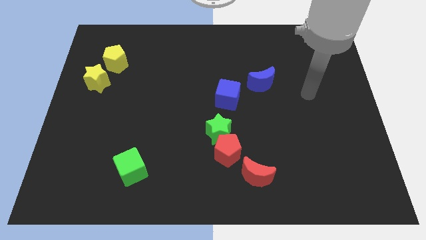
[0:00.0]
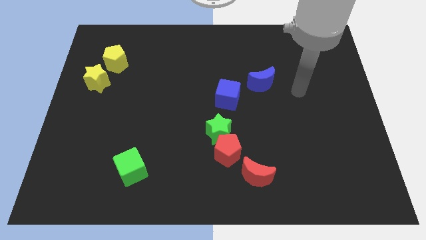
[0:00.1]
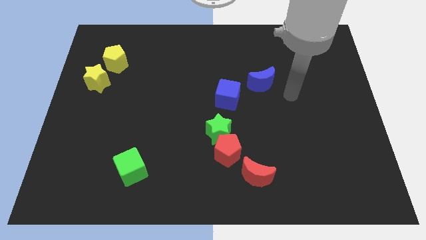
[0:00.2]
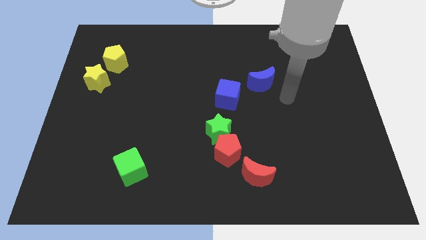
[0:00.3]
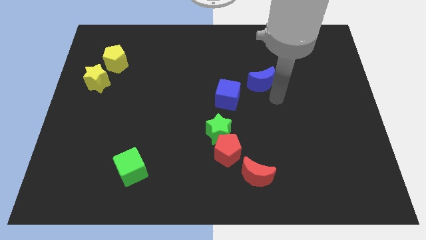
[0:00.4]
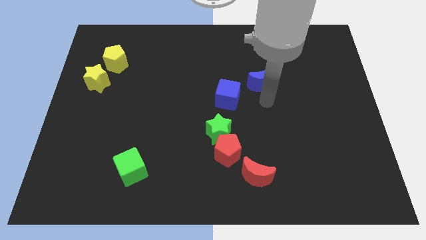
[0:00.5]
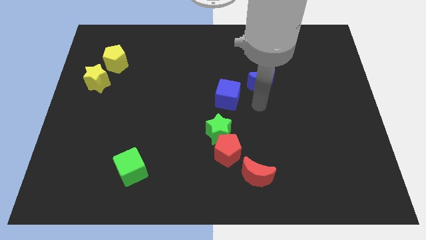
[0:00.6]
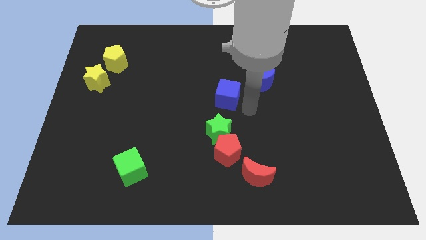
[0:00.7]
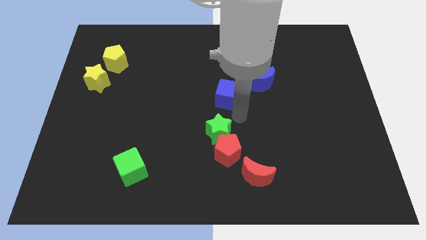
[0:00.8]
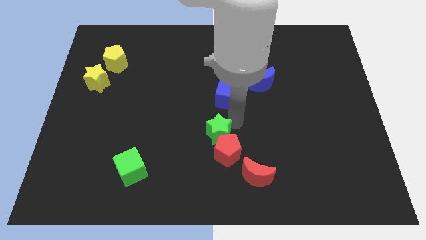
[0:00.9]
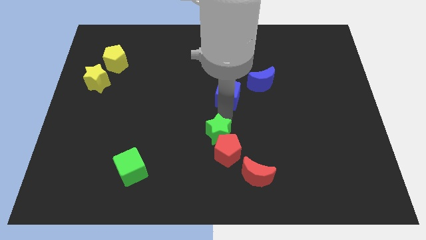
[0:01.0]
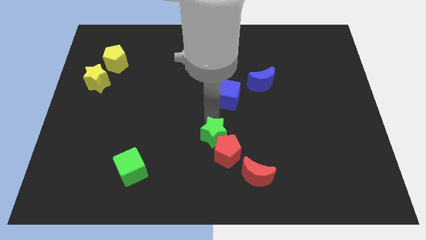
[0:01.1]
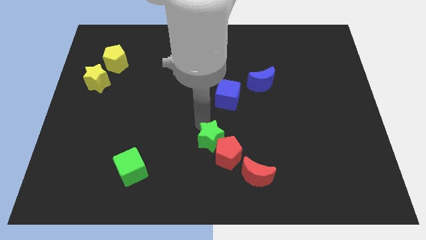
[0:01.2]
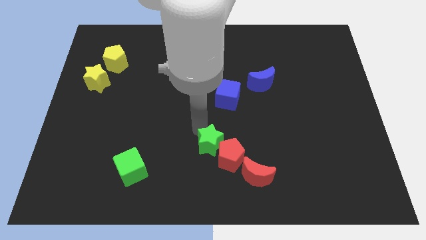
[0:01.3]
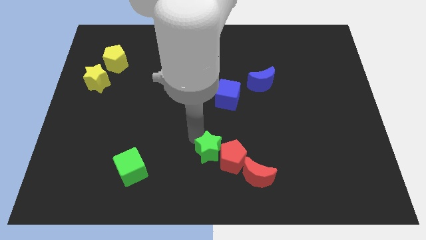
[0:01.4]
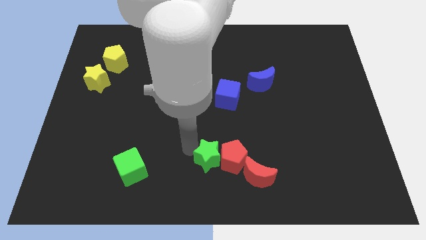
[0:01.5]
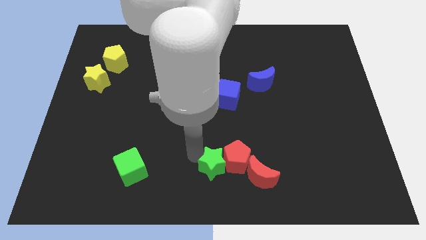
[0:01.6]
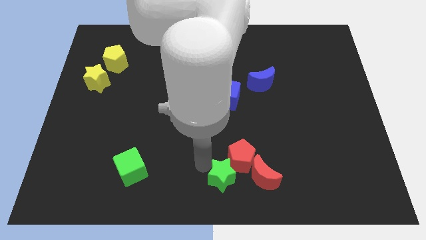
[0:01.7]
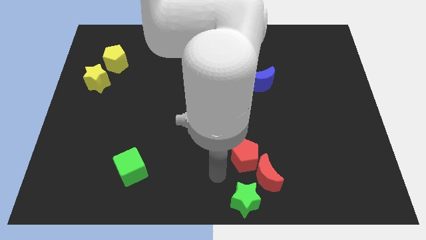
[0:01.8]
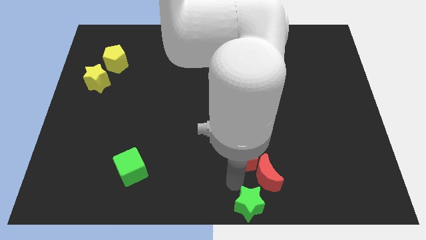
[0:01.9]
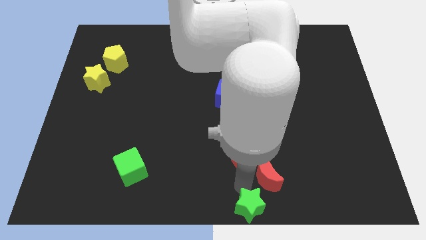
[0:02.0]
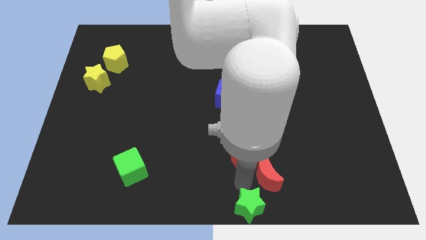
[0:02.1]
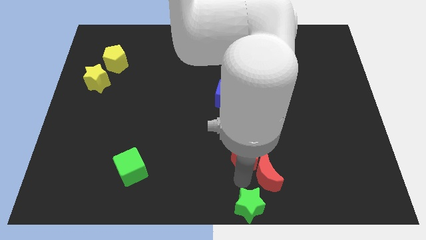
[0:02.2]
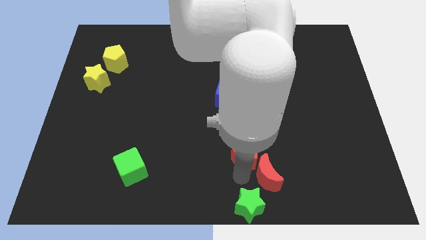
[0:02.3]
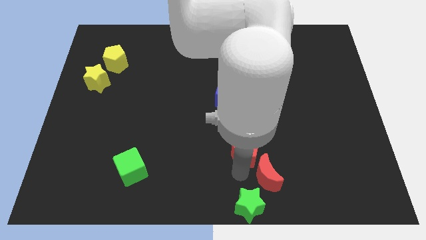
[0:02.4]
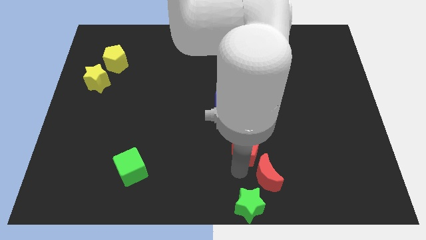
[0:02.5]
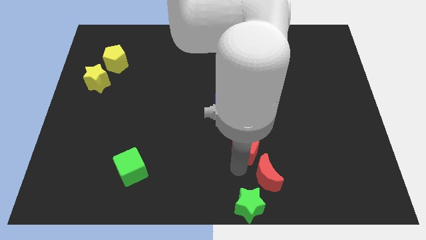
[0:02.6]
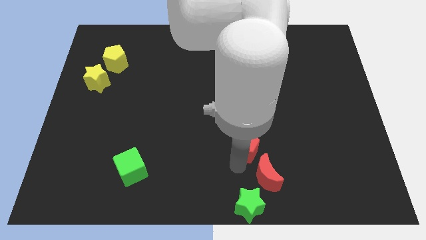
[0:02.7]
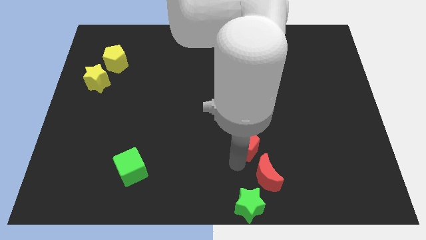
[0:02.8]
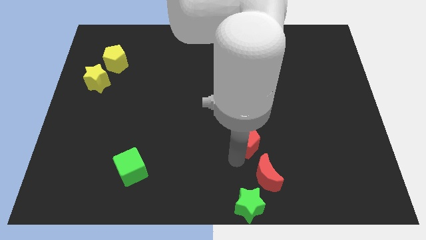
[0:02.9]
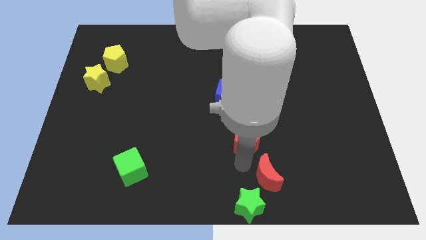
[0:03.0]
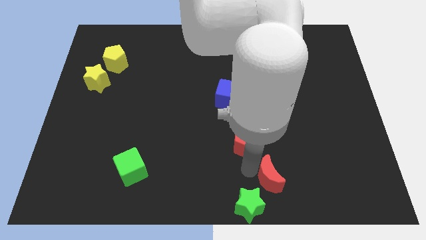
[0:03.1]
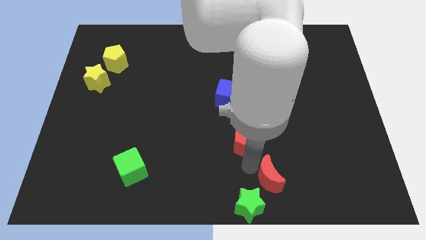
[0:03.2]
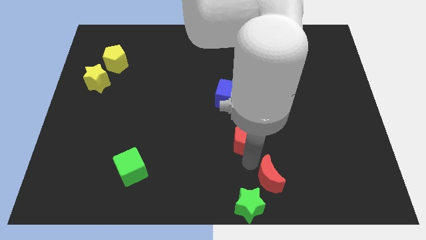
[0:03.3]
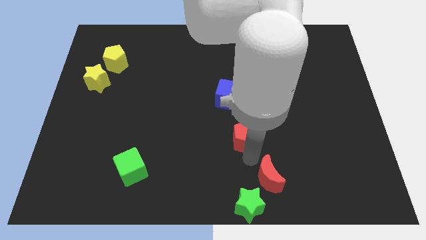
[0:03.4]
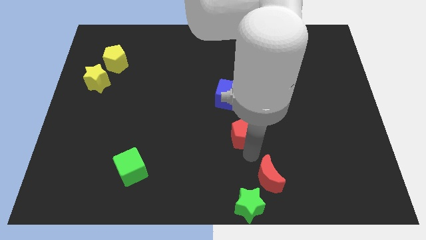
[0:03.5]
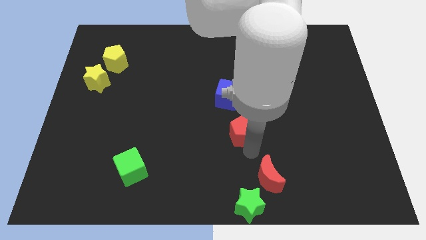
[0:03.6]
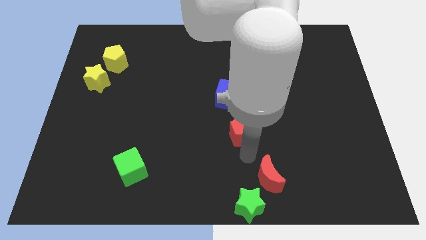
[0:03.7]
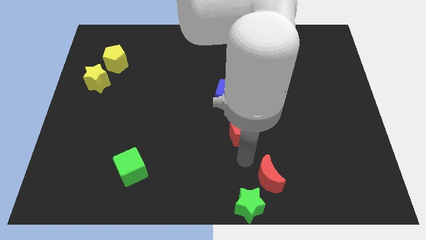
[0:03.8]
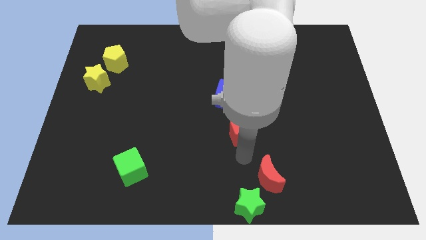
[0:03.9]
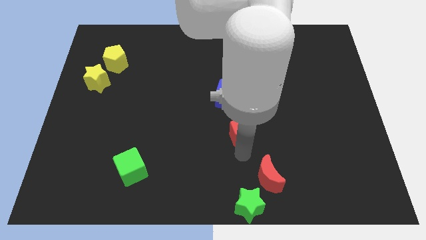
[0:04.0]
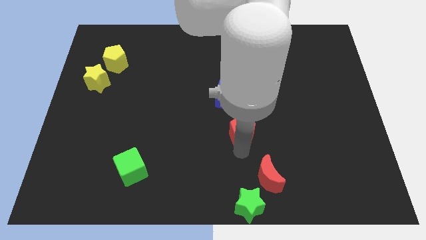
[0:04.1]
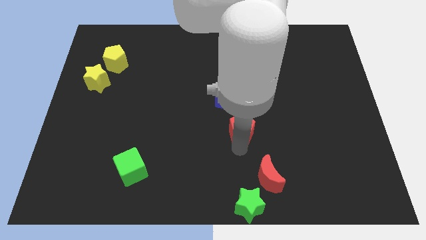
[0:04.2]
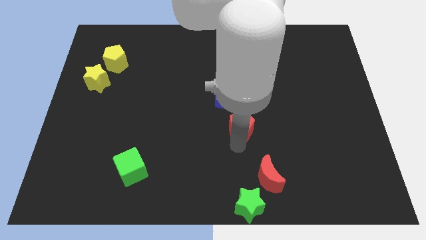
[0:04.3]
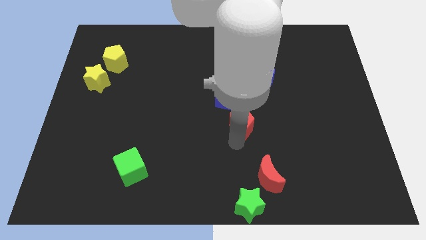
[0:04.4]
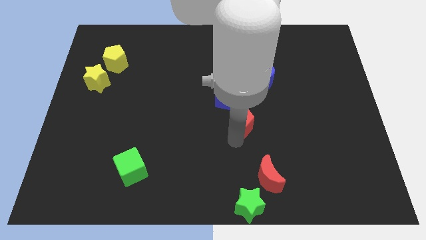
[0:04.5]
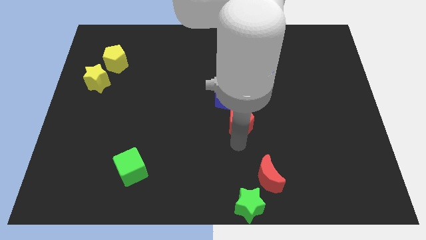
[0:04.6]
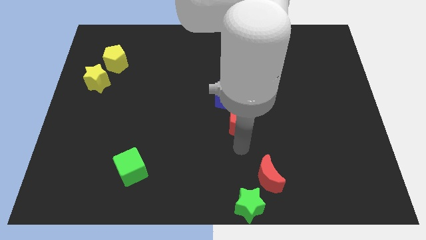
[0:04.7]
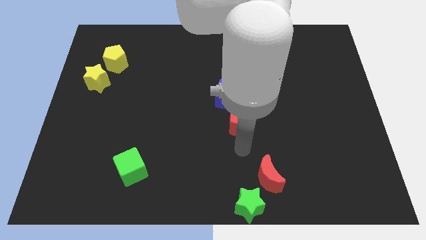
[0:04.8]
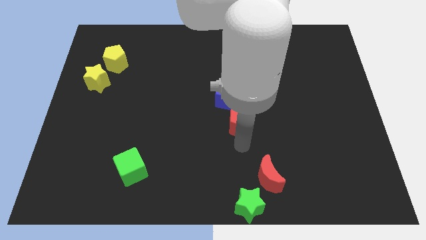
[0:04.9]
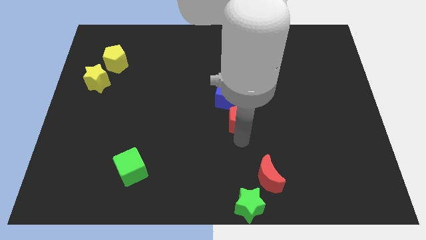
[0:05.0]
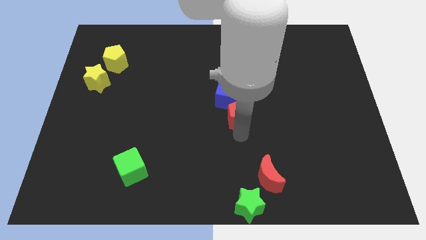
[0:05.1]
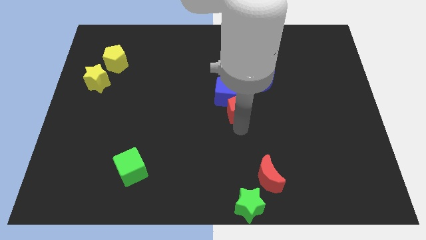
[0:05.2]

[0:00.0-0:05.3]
push the red pentagon next to the blue cube

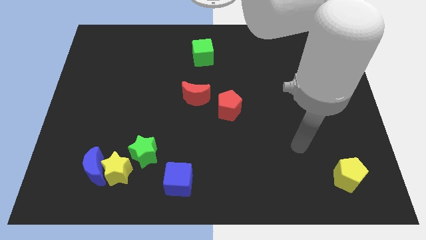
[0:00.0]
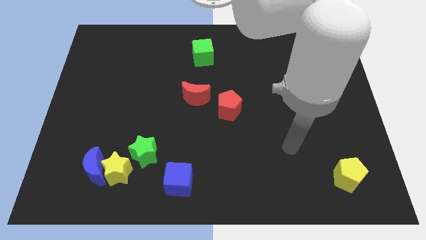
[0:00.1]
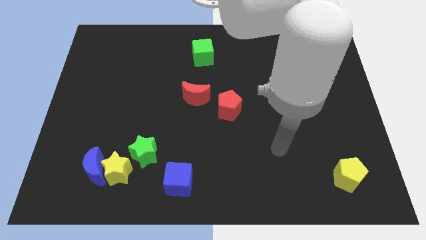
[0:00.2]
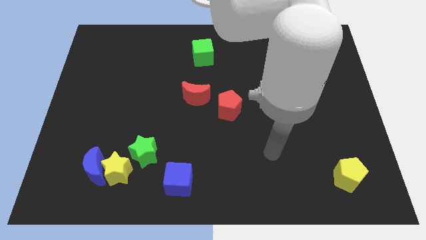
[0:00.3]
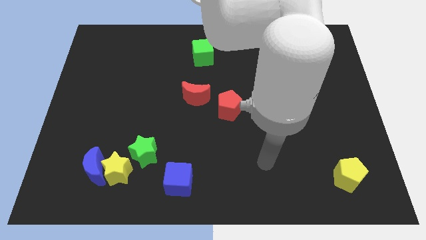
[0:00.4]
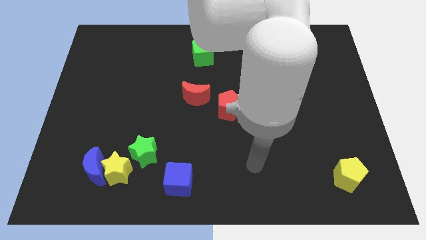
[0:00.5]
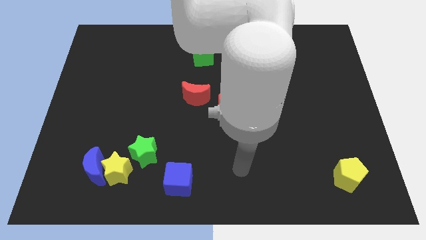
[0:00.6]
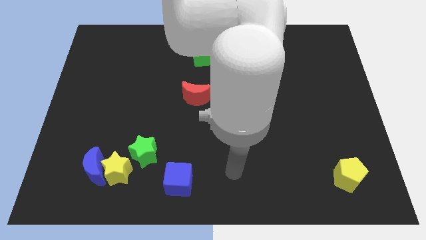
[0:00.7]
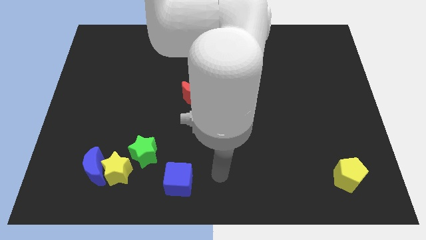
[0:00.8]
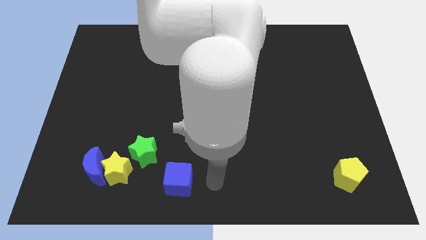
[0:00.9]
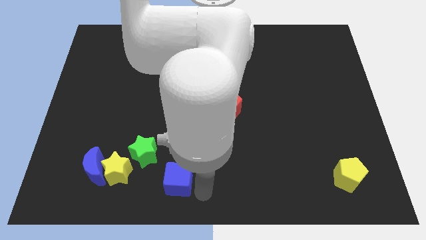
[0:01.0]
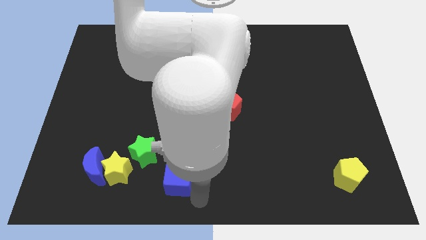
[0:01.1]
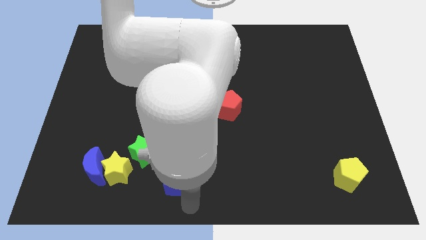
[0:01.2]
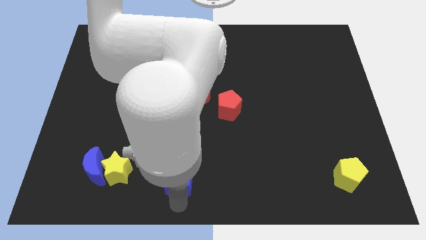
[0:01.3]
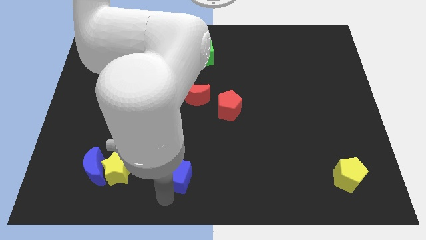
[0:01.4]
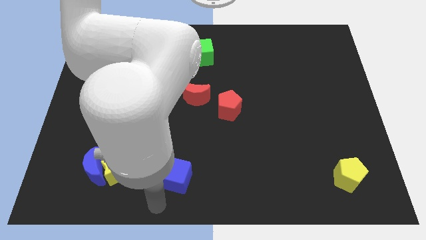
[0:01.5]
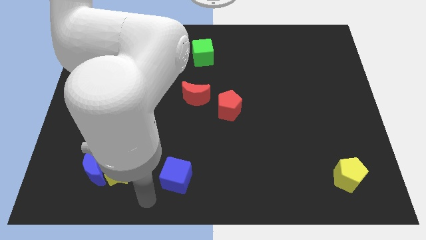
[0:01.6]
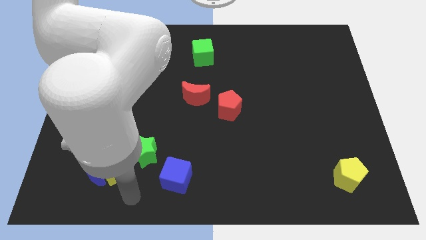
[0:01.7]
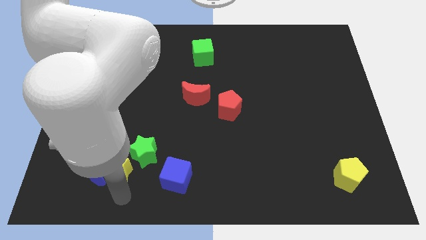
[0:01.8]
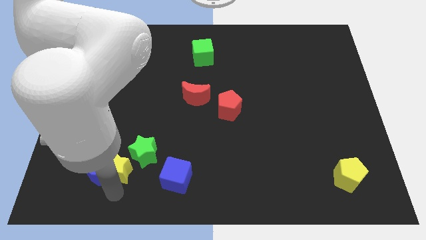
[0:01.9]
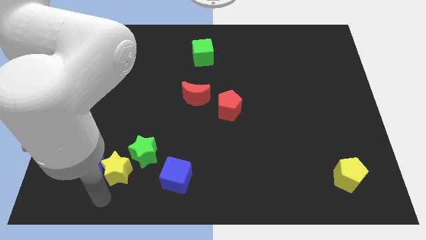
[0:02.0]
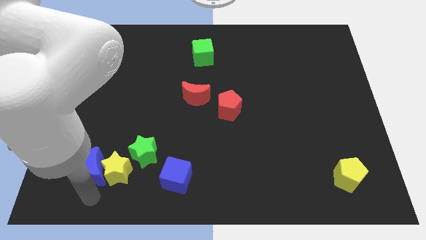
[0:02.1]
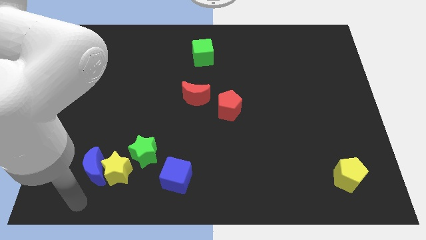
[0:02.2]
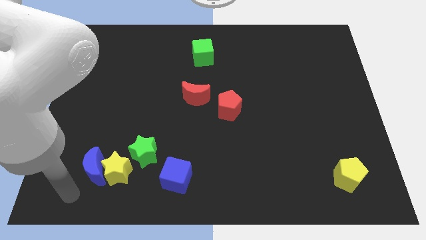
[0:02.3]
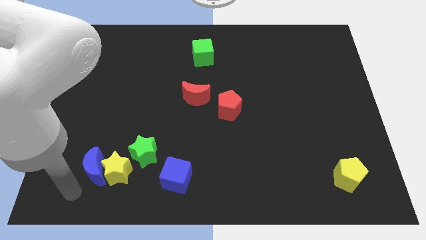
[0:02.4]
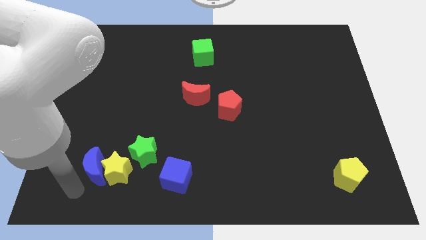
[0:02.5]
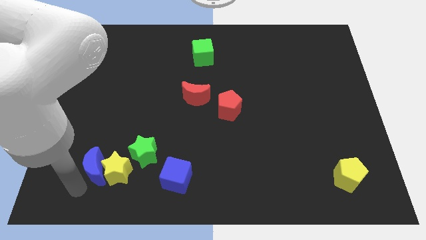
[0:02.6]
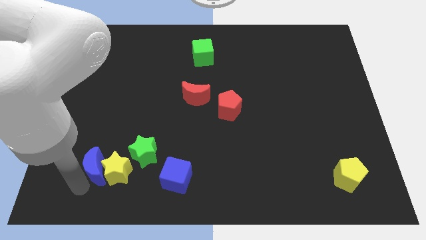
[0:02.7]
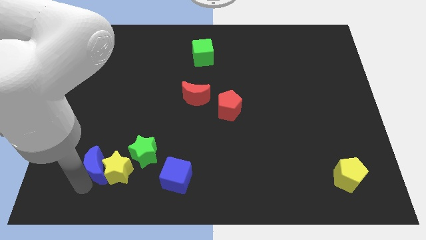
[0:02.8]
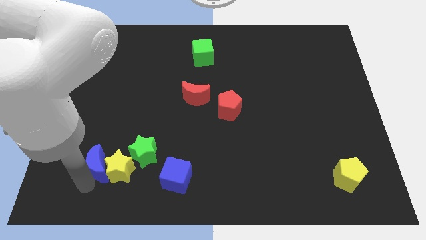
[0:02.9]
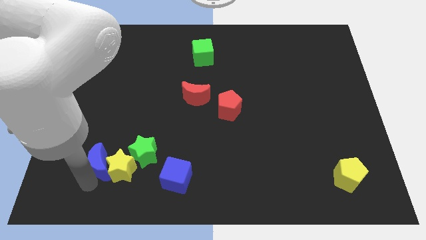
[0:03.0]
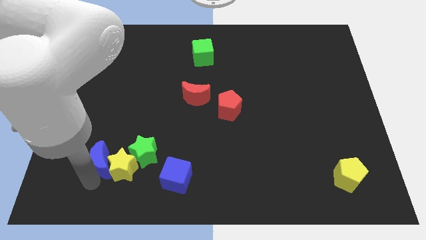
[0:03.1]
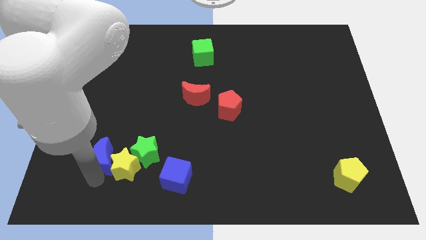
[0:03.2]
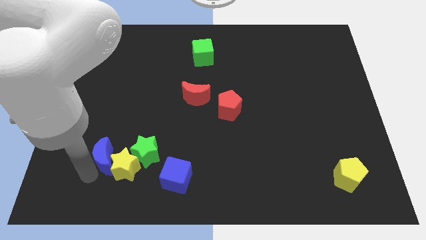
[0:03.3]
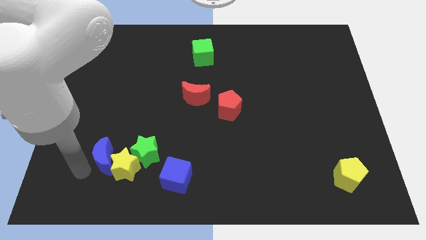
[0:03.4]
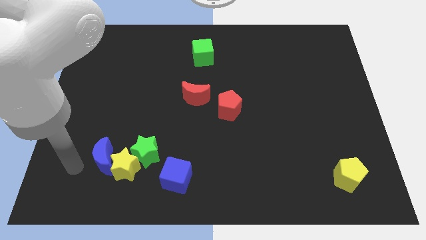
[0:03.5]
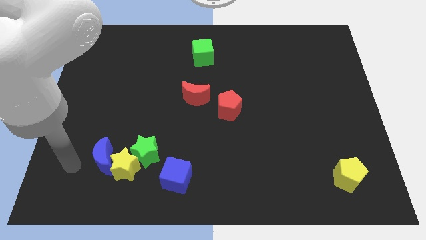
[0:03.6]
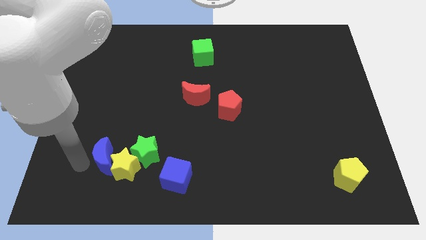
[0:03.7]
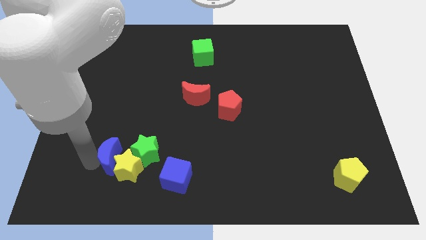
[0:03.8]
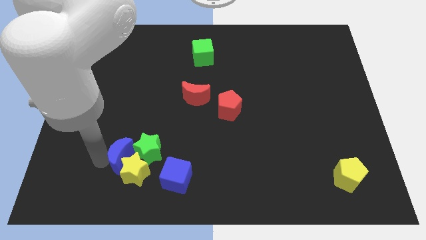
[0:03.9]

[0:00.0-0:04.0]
move the blue moon close to the green star
